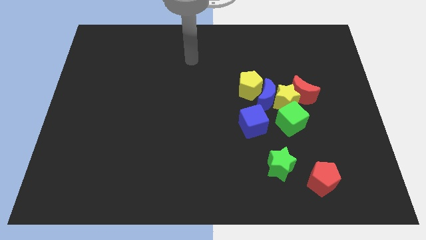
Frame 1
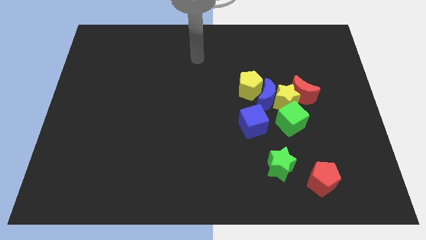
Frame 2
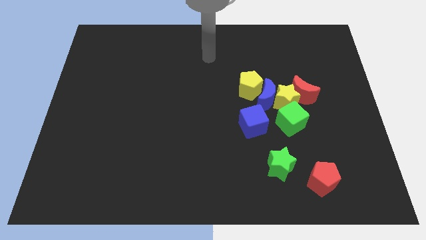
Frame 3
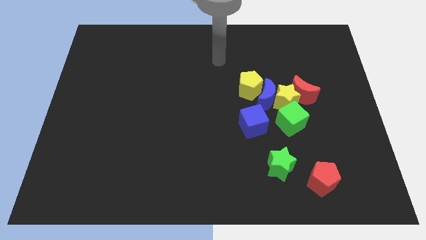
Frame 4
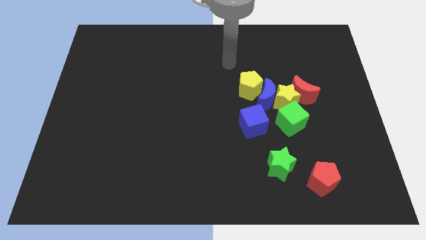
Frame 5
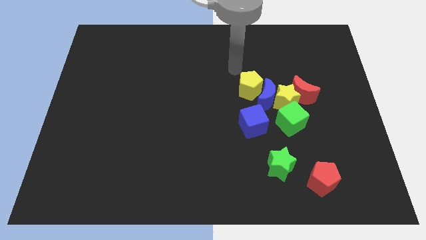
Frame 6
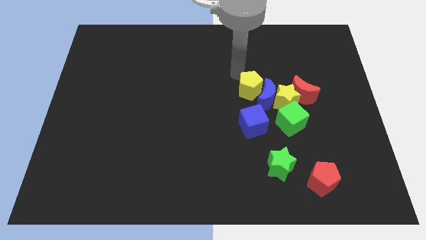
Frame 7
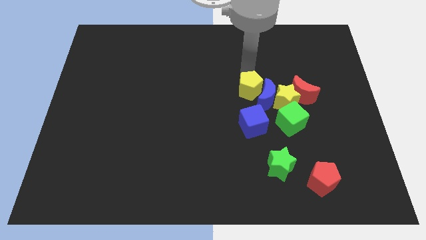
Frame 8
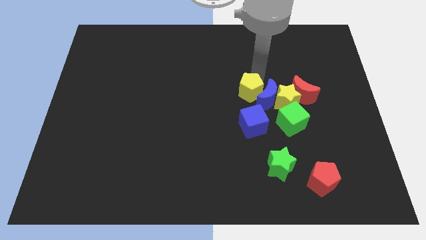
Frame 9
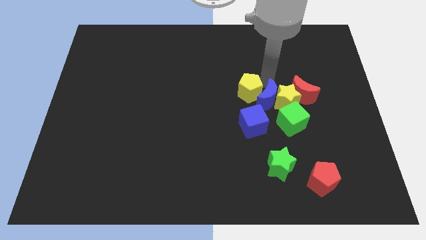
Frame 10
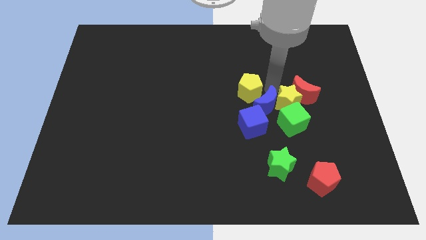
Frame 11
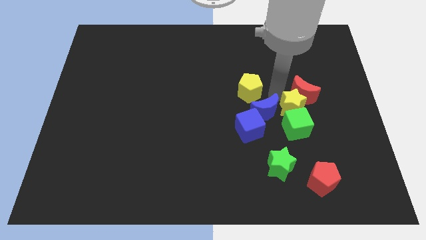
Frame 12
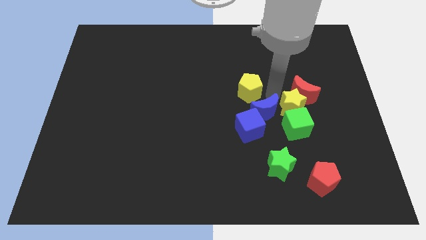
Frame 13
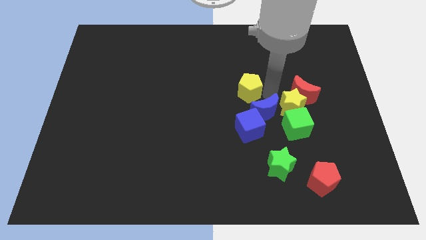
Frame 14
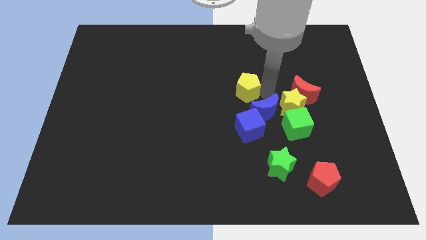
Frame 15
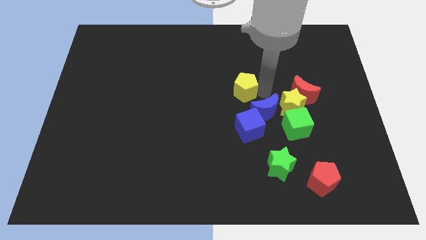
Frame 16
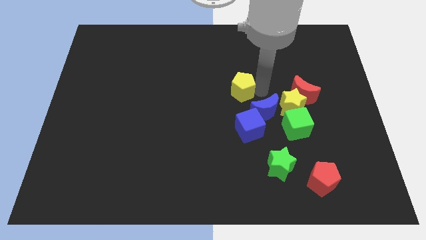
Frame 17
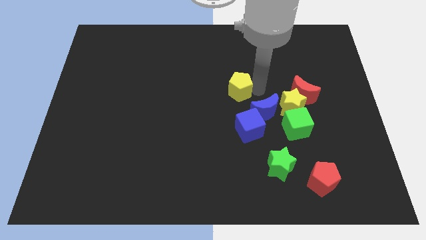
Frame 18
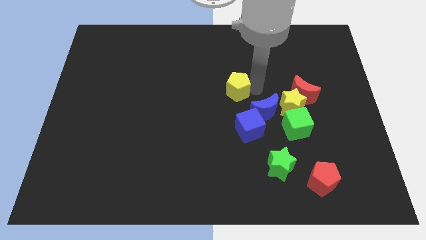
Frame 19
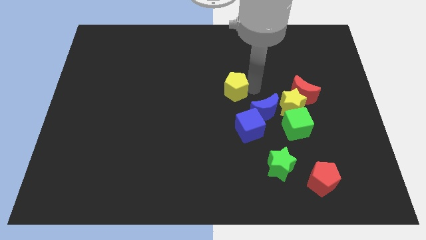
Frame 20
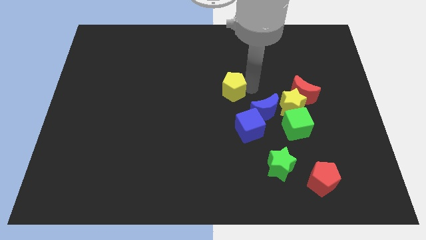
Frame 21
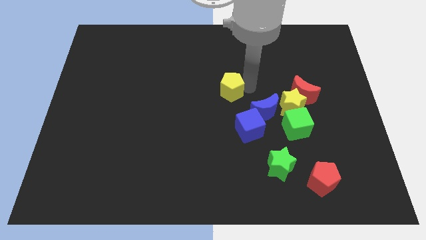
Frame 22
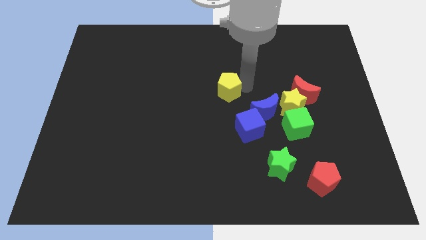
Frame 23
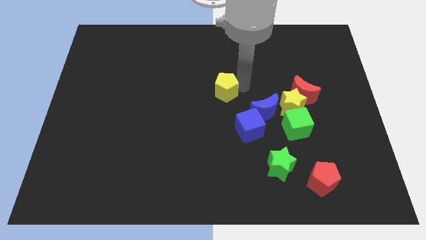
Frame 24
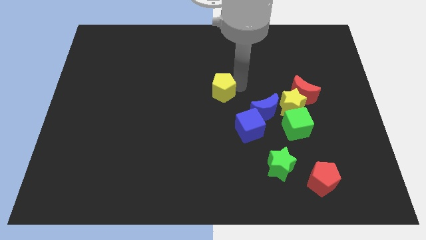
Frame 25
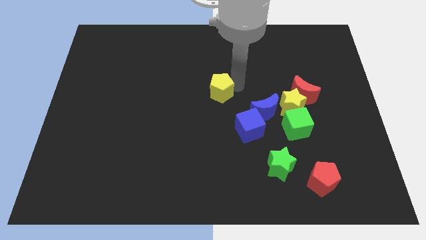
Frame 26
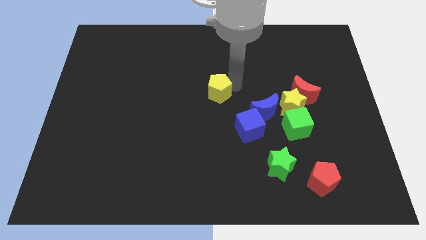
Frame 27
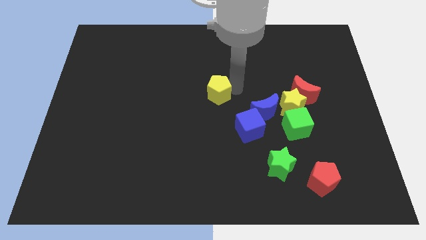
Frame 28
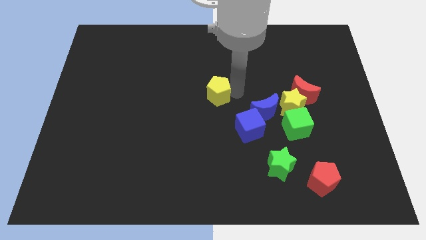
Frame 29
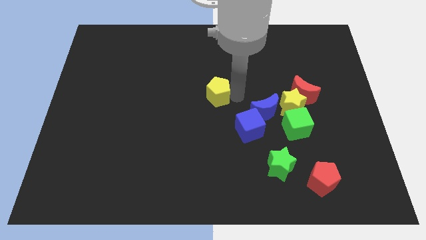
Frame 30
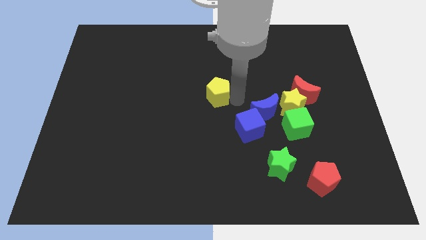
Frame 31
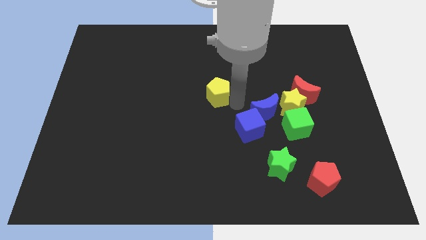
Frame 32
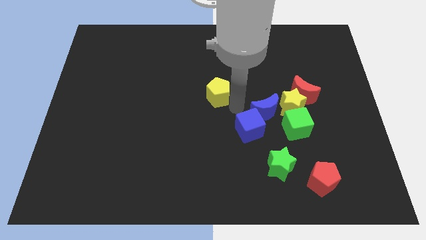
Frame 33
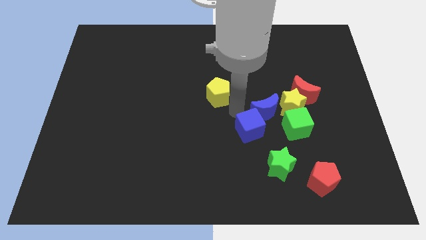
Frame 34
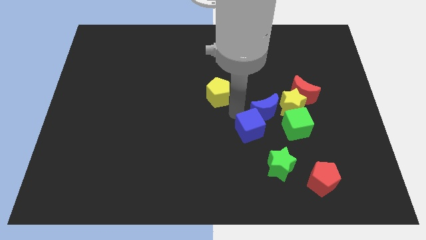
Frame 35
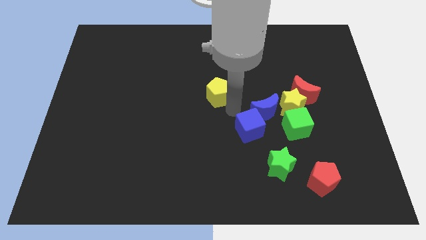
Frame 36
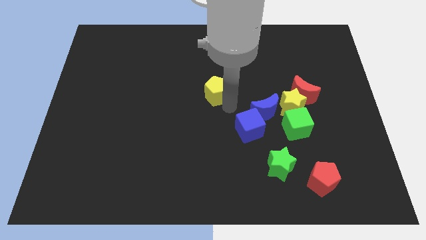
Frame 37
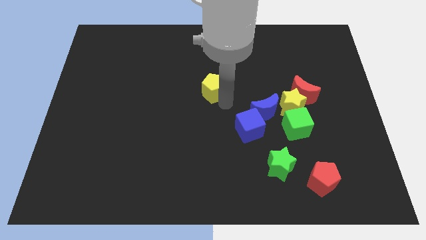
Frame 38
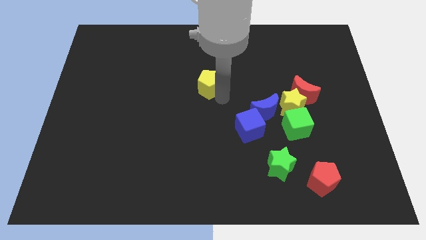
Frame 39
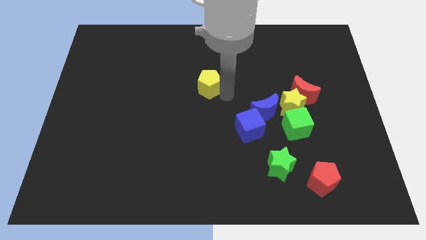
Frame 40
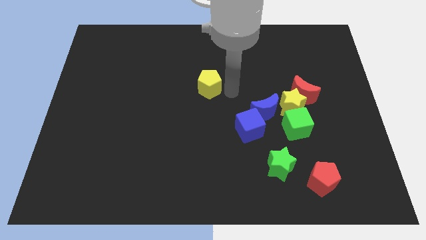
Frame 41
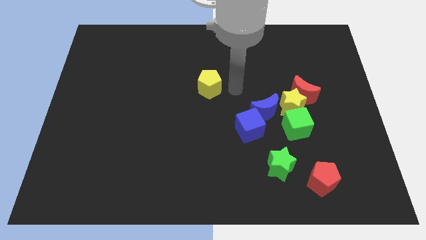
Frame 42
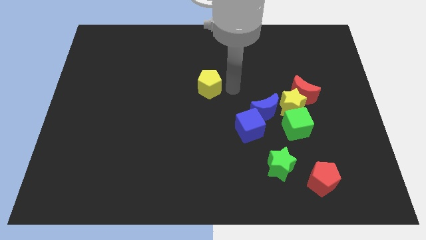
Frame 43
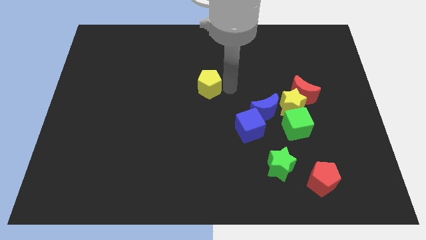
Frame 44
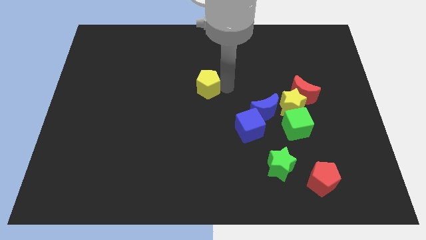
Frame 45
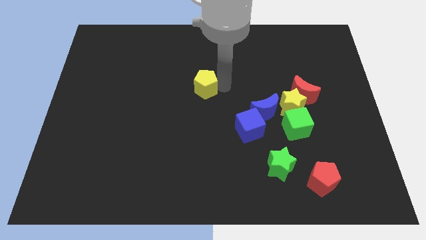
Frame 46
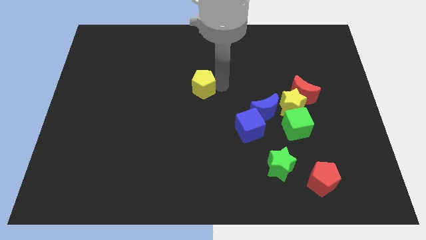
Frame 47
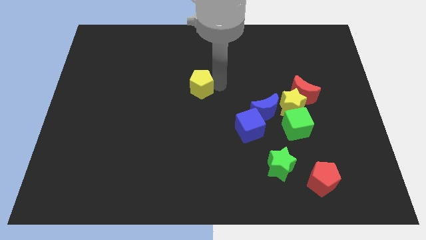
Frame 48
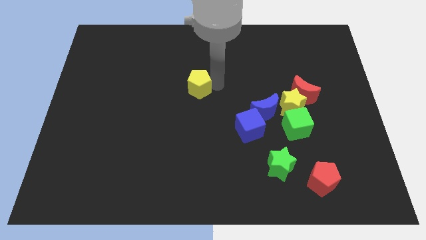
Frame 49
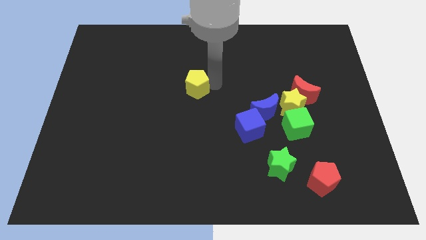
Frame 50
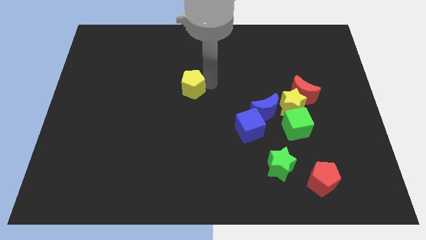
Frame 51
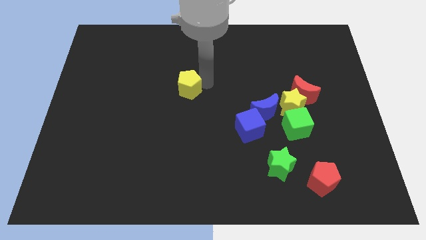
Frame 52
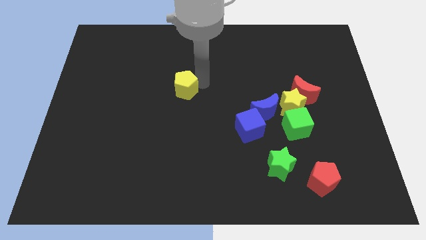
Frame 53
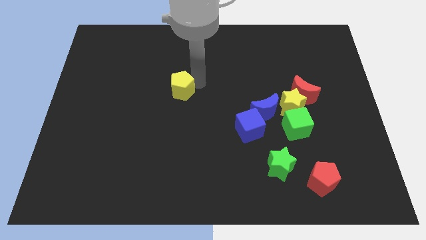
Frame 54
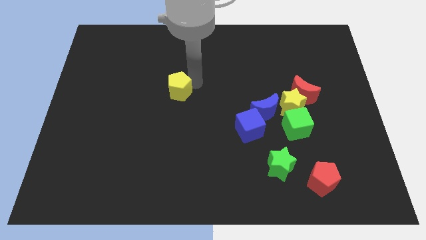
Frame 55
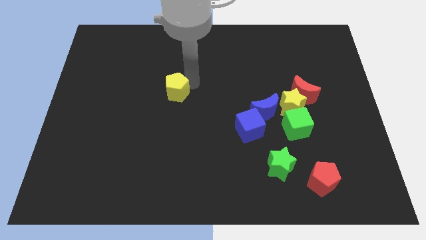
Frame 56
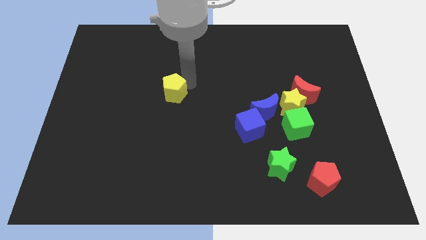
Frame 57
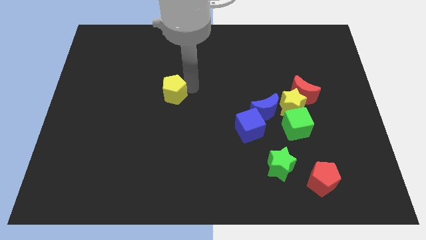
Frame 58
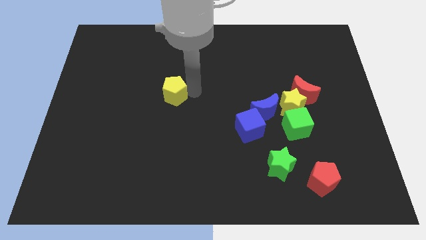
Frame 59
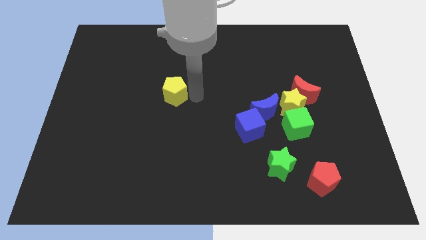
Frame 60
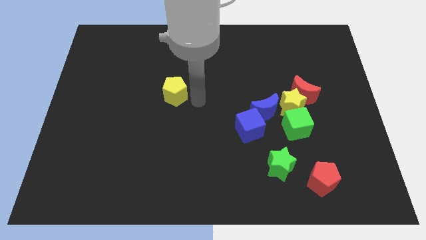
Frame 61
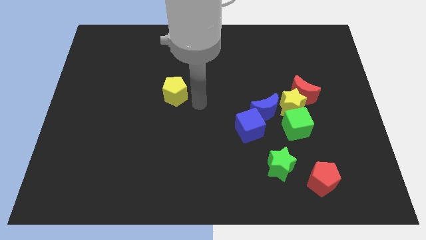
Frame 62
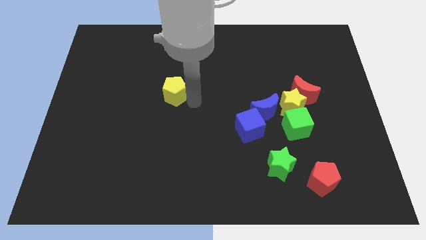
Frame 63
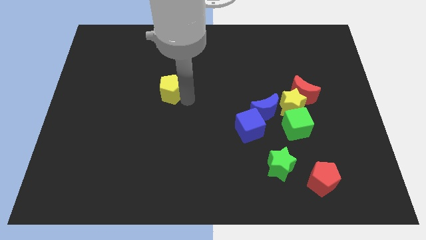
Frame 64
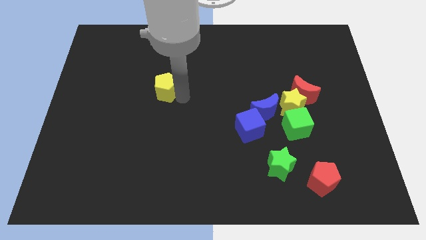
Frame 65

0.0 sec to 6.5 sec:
slide the yellow pentagon to the left

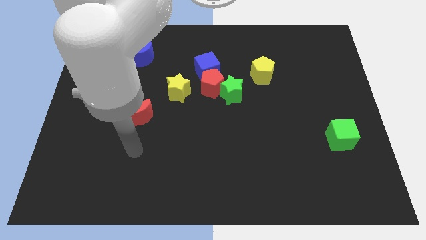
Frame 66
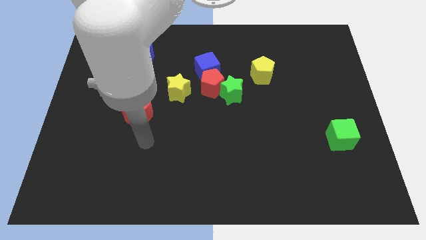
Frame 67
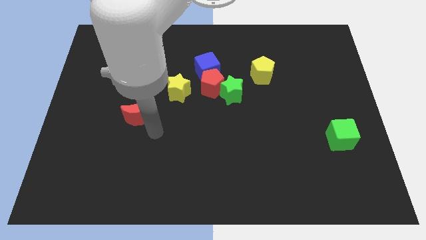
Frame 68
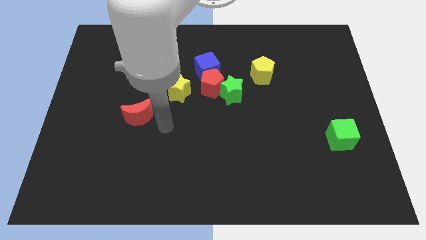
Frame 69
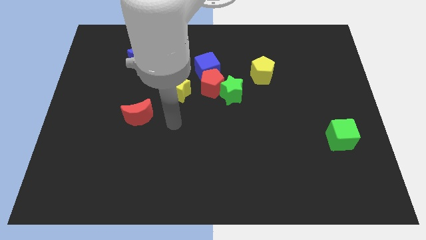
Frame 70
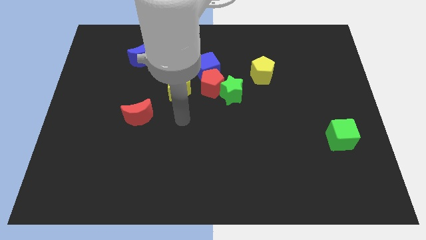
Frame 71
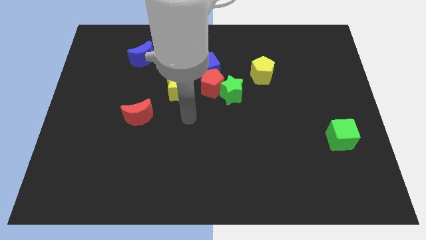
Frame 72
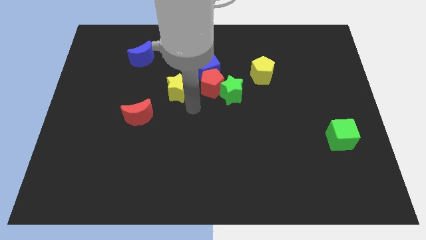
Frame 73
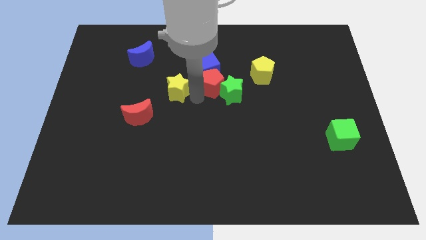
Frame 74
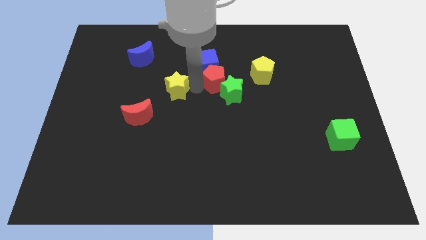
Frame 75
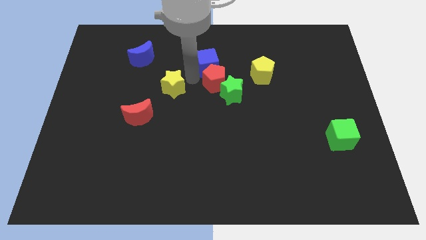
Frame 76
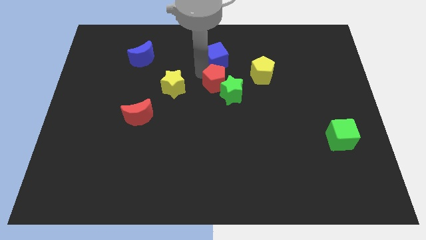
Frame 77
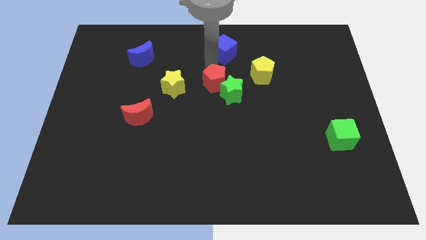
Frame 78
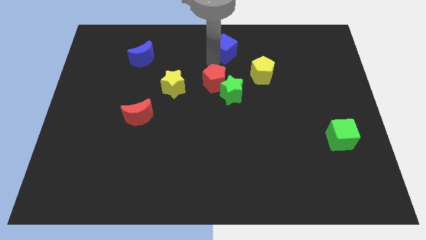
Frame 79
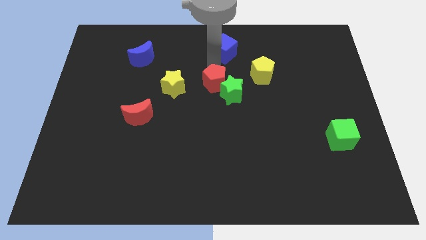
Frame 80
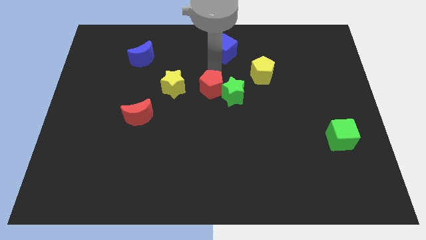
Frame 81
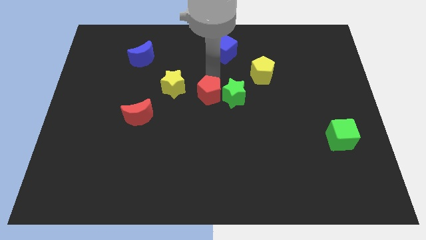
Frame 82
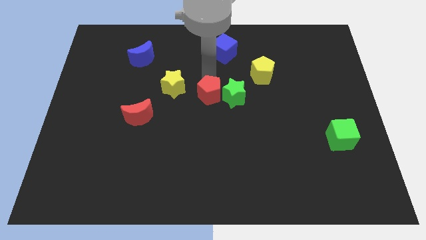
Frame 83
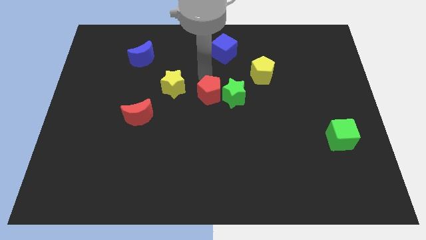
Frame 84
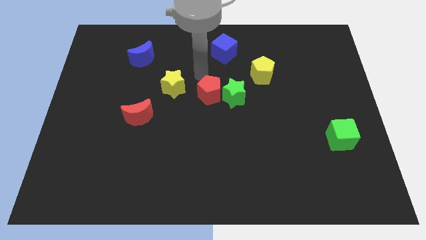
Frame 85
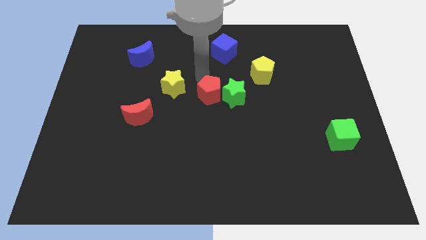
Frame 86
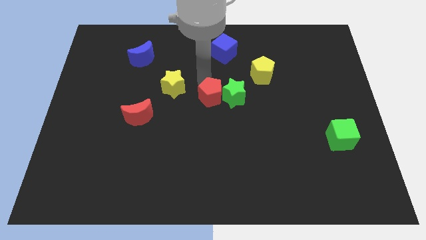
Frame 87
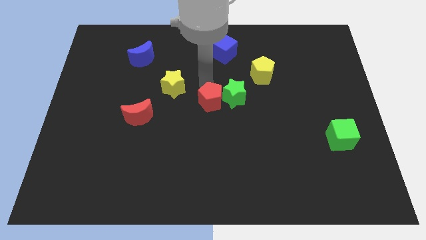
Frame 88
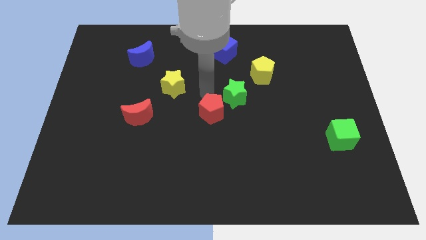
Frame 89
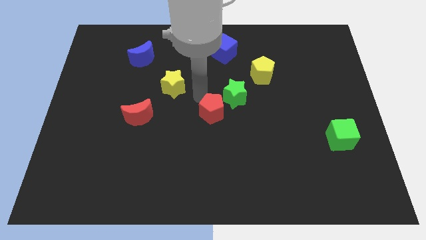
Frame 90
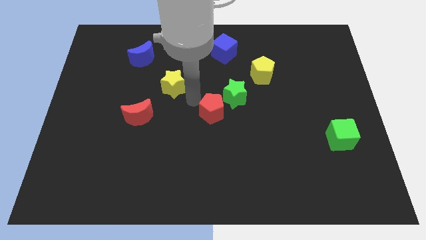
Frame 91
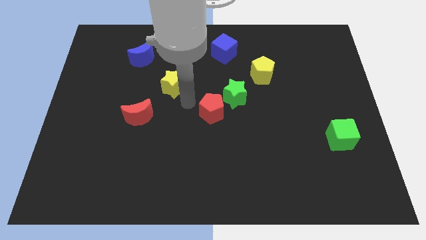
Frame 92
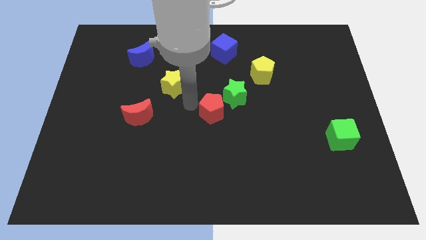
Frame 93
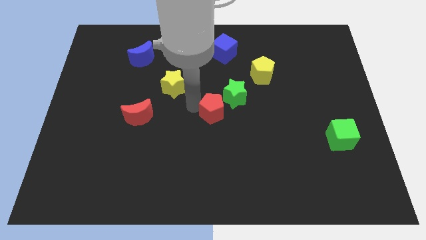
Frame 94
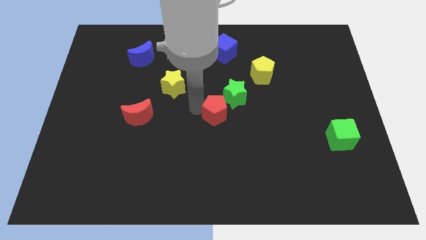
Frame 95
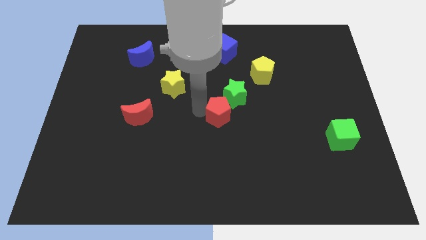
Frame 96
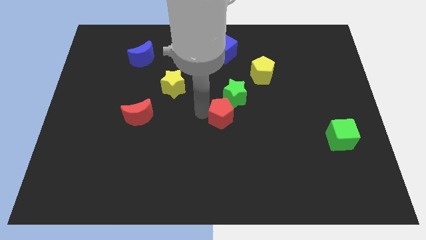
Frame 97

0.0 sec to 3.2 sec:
push the red pentagon downwards and then to the right a little
